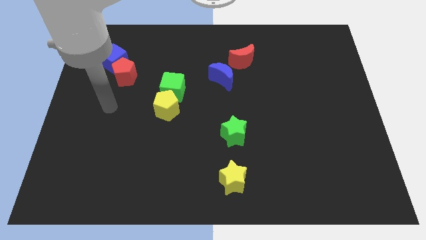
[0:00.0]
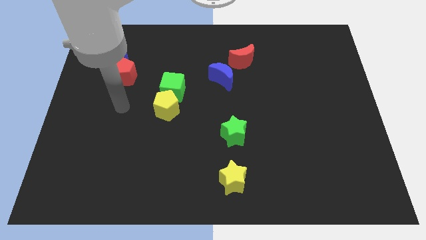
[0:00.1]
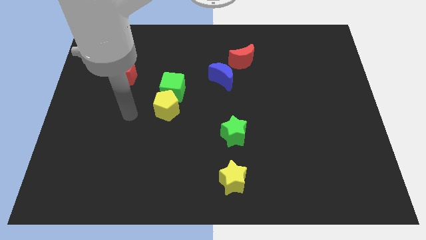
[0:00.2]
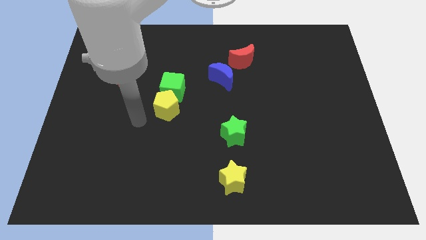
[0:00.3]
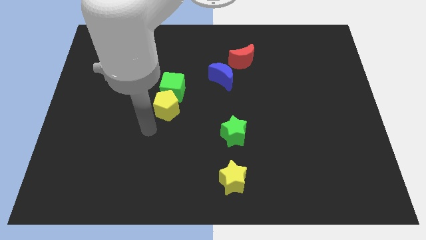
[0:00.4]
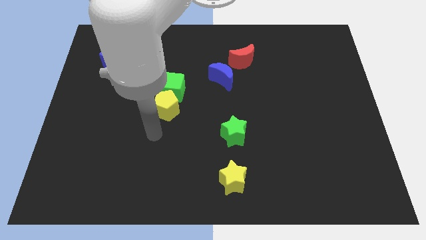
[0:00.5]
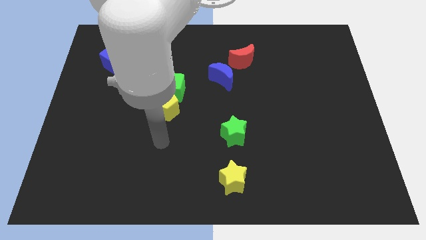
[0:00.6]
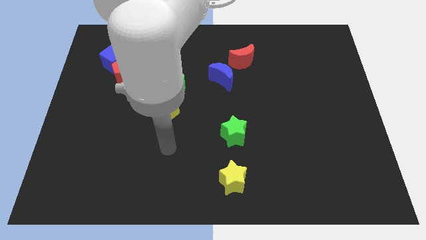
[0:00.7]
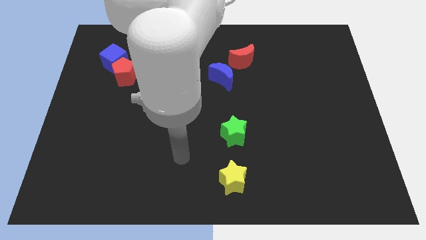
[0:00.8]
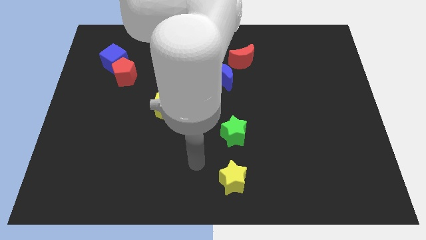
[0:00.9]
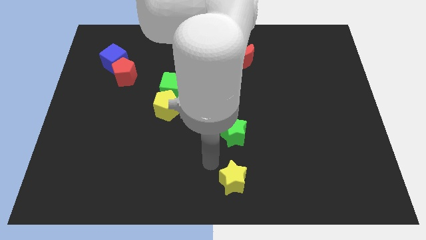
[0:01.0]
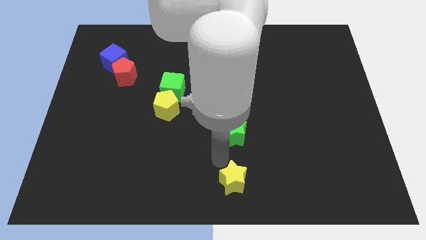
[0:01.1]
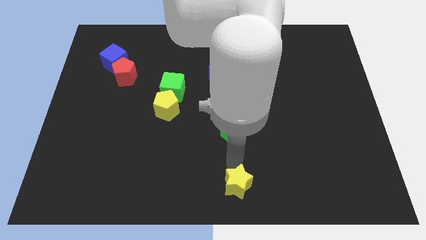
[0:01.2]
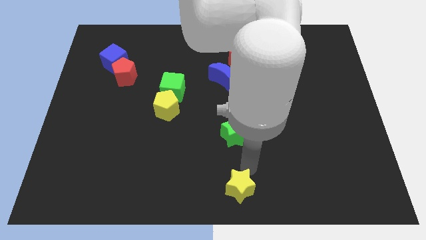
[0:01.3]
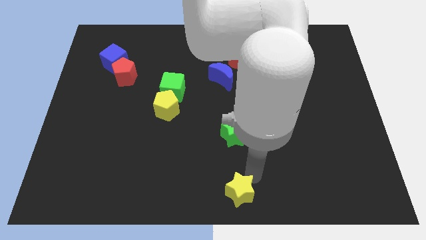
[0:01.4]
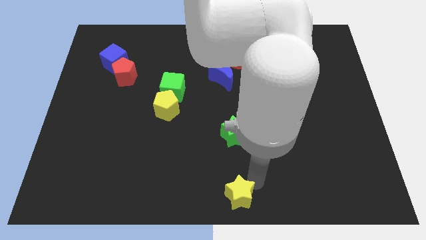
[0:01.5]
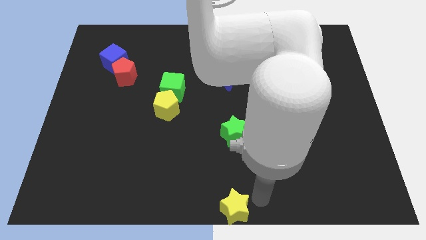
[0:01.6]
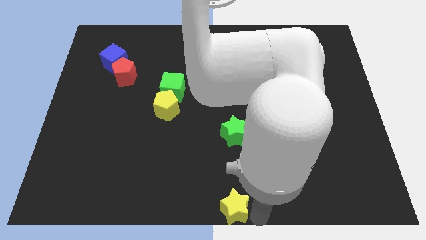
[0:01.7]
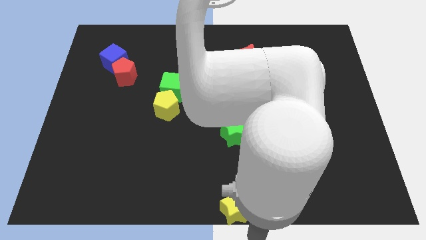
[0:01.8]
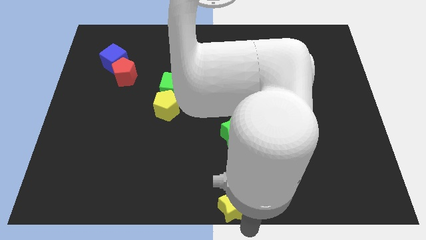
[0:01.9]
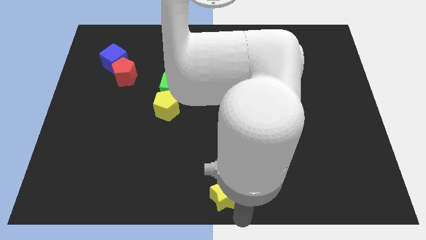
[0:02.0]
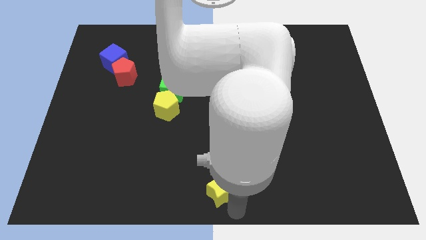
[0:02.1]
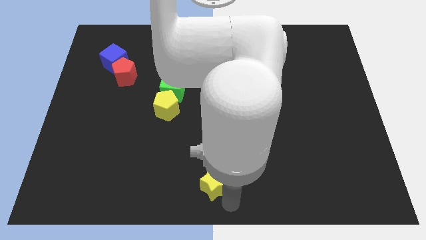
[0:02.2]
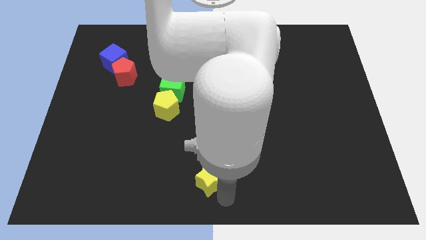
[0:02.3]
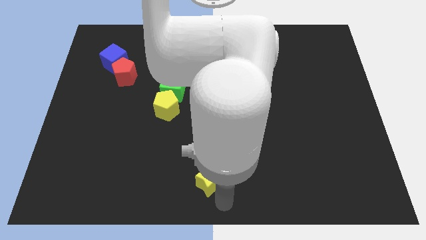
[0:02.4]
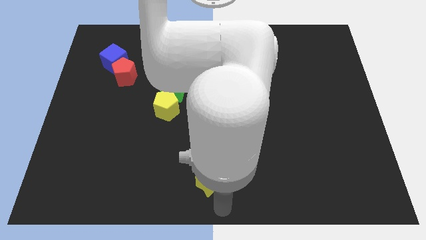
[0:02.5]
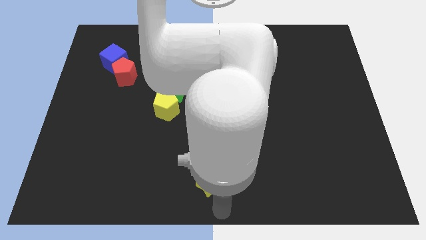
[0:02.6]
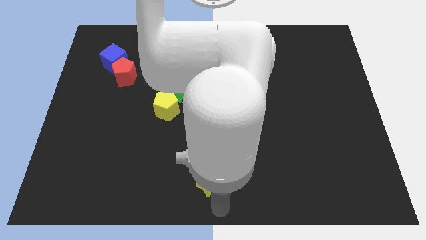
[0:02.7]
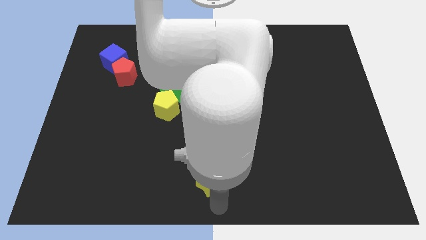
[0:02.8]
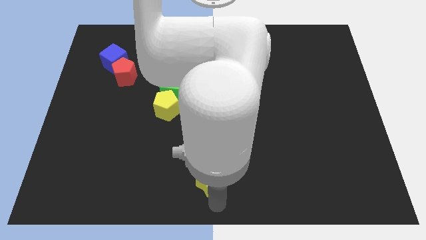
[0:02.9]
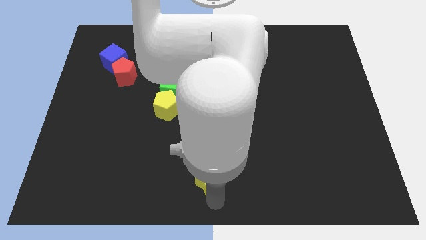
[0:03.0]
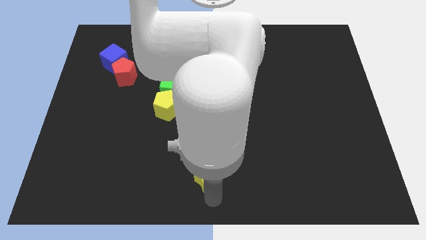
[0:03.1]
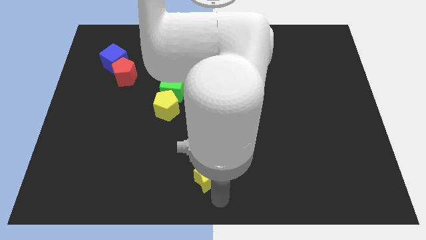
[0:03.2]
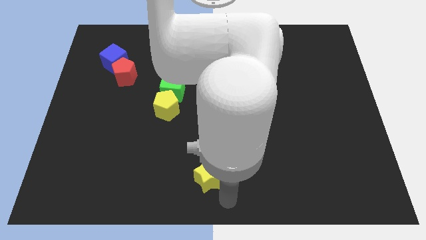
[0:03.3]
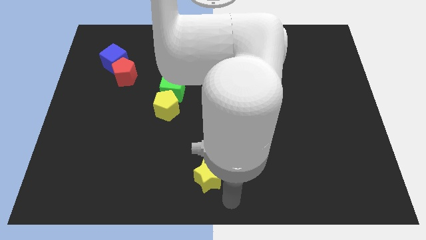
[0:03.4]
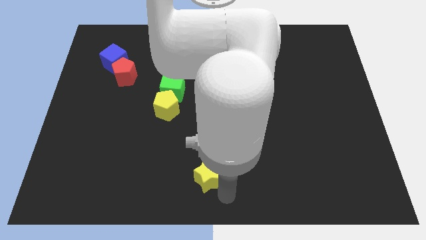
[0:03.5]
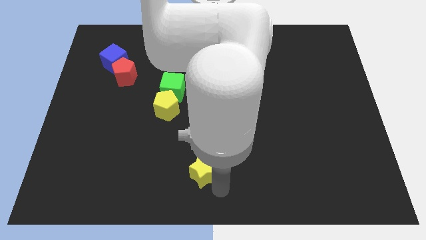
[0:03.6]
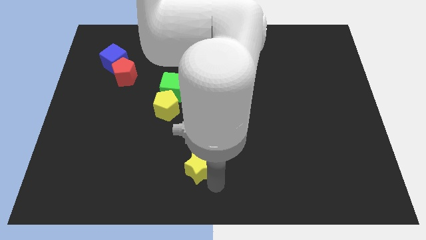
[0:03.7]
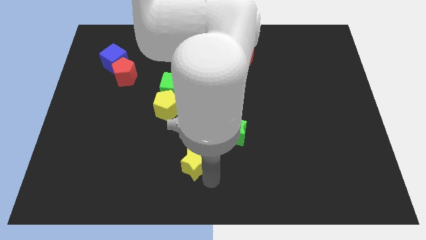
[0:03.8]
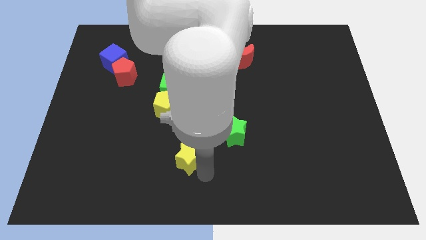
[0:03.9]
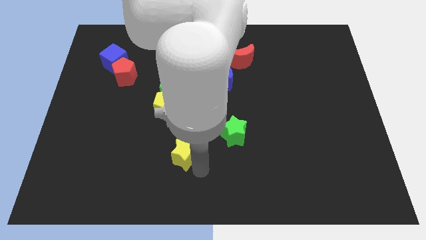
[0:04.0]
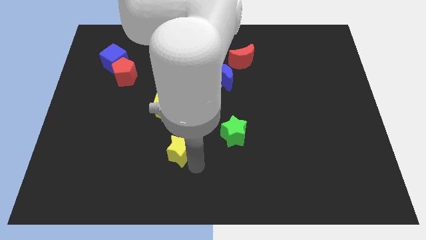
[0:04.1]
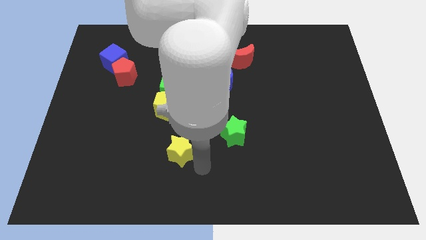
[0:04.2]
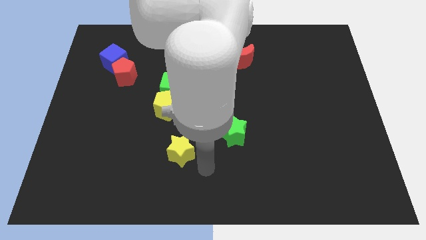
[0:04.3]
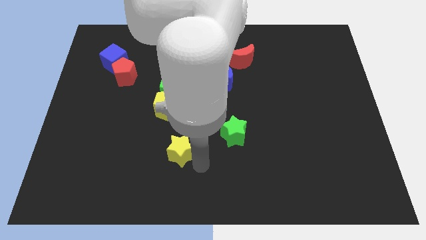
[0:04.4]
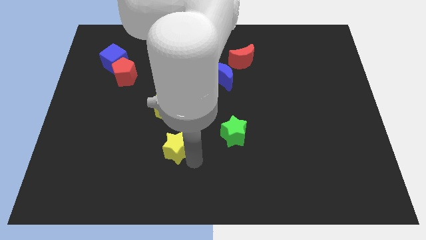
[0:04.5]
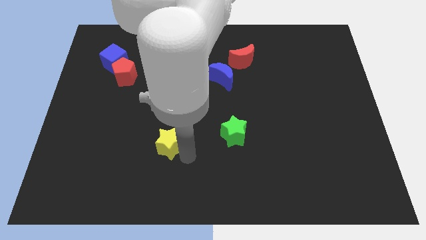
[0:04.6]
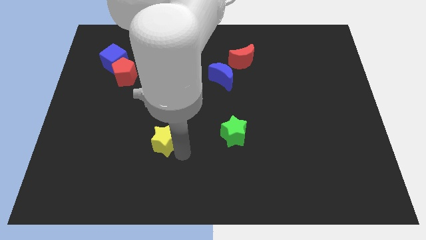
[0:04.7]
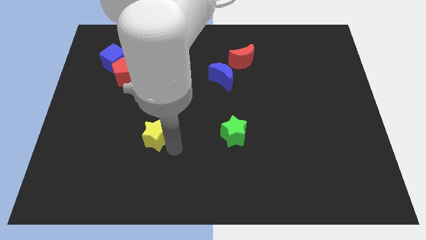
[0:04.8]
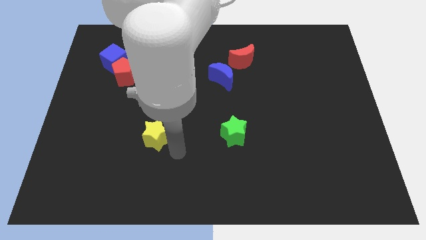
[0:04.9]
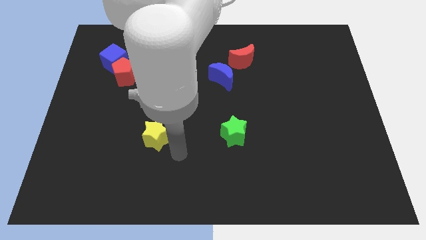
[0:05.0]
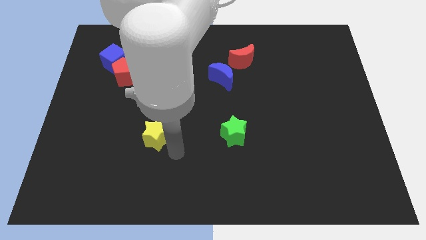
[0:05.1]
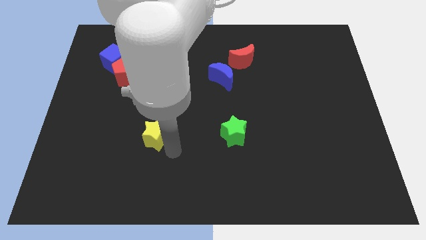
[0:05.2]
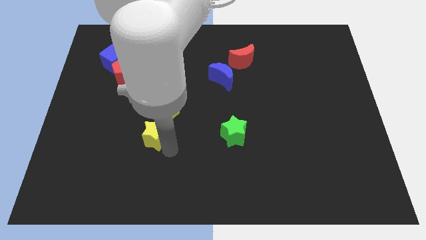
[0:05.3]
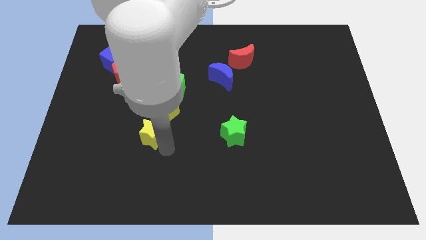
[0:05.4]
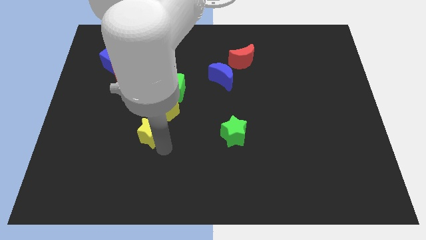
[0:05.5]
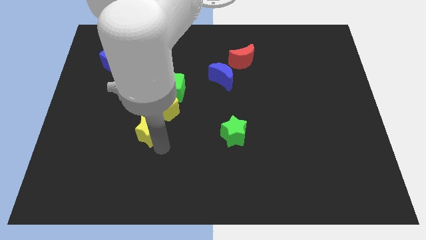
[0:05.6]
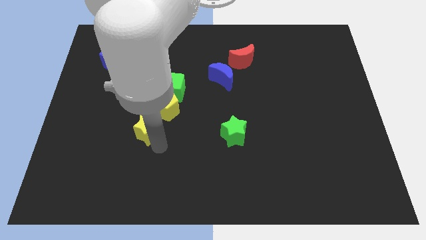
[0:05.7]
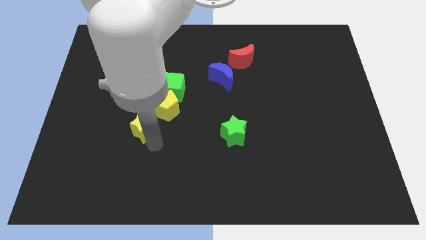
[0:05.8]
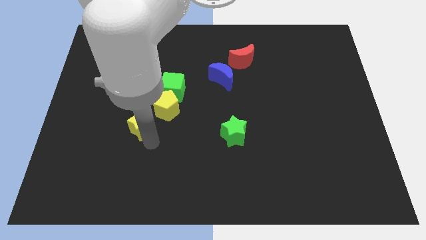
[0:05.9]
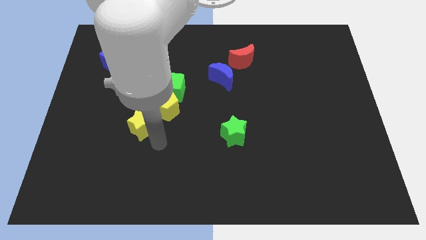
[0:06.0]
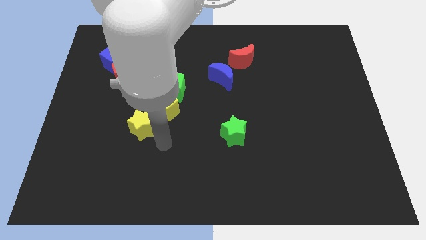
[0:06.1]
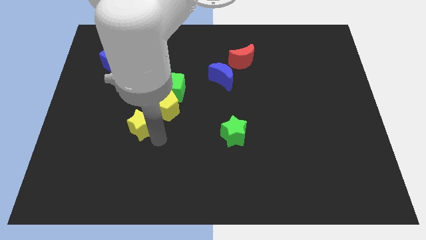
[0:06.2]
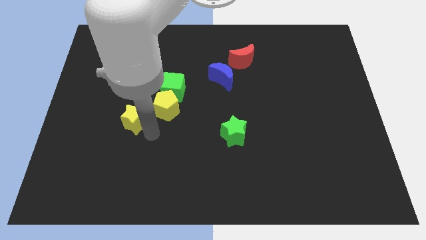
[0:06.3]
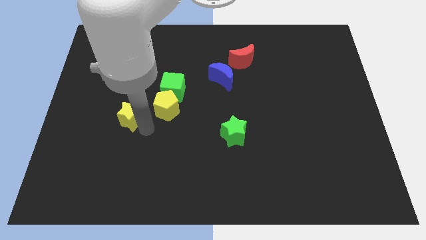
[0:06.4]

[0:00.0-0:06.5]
slide the yellow star to the bottom side of the red pentagon

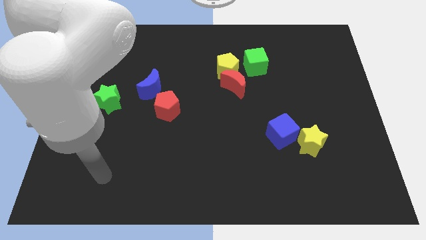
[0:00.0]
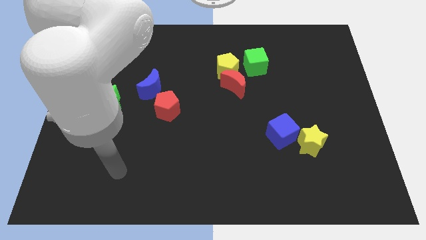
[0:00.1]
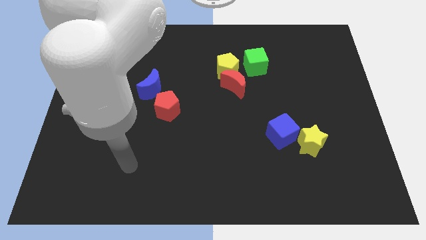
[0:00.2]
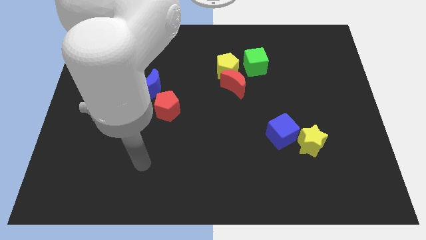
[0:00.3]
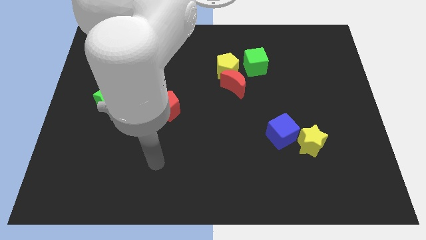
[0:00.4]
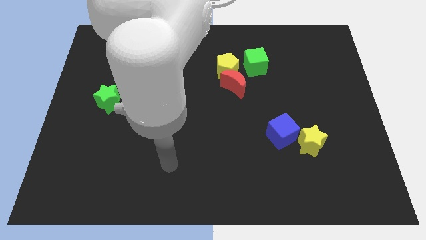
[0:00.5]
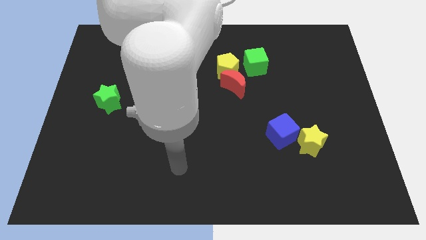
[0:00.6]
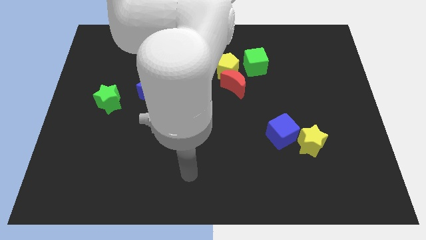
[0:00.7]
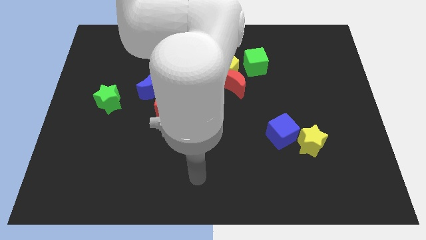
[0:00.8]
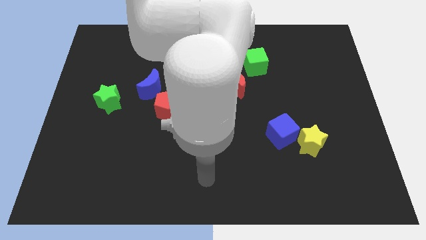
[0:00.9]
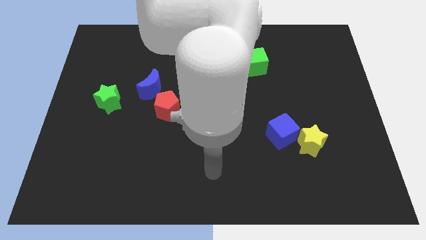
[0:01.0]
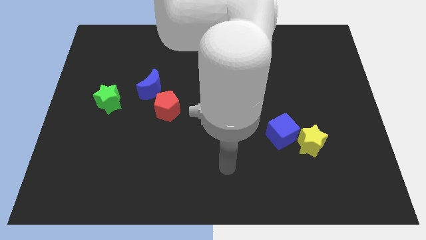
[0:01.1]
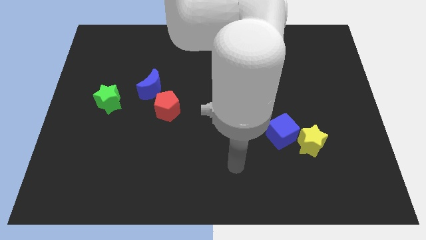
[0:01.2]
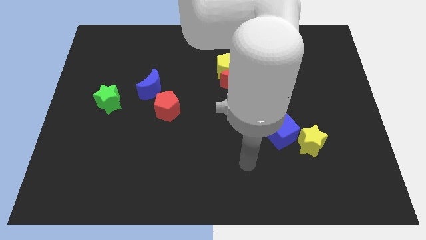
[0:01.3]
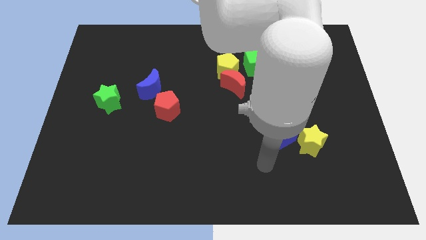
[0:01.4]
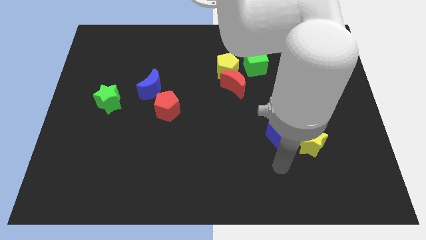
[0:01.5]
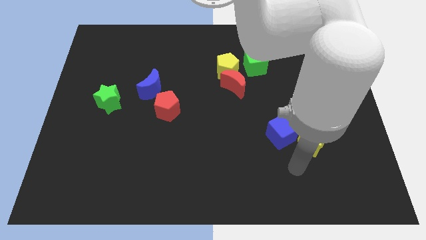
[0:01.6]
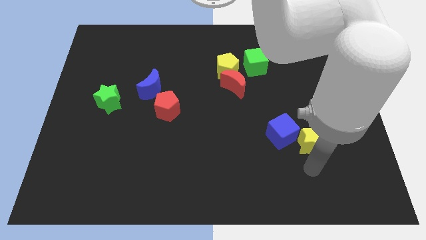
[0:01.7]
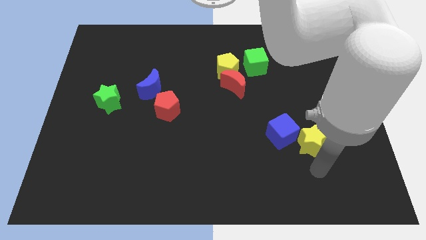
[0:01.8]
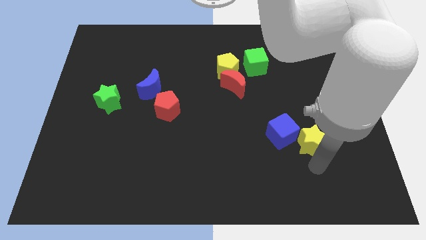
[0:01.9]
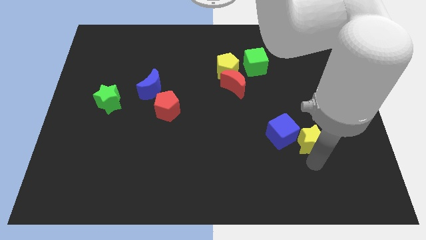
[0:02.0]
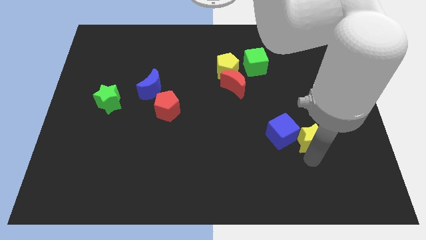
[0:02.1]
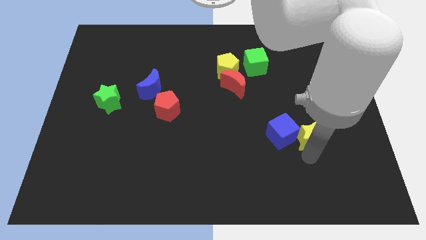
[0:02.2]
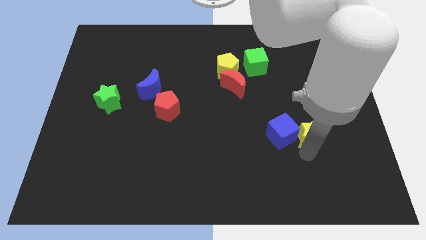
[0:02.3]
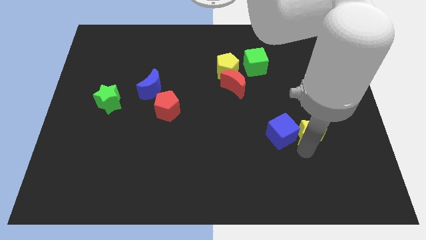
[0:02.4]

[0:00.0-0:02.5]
move the yellow star to the top right of the blue cube
